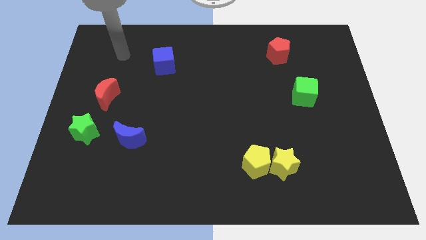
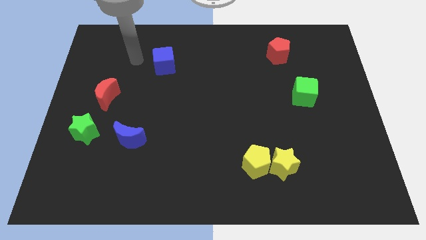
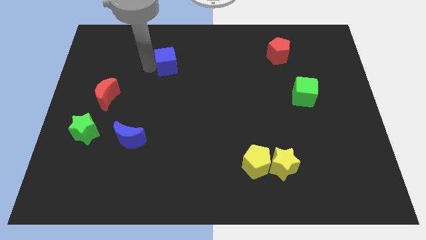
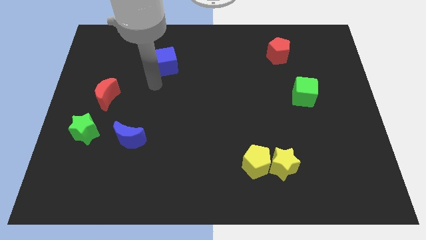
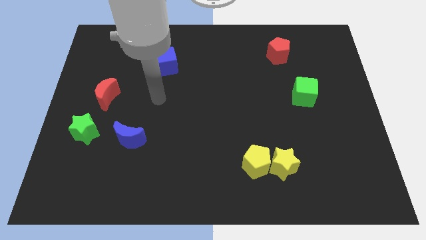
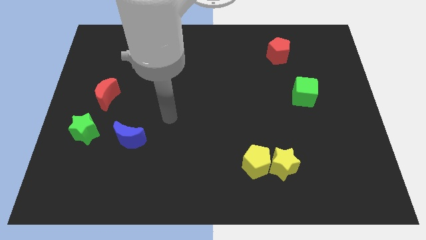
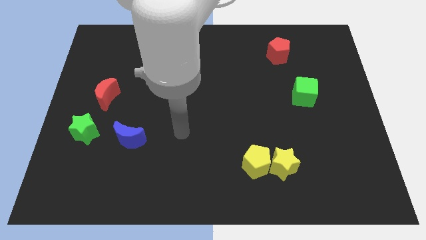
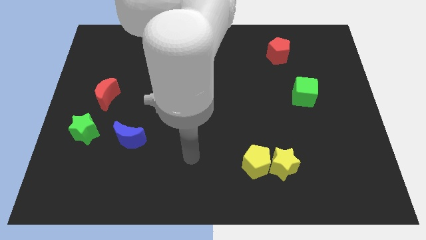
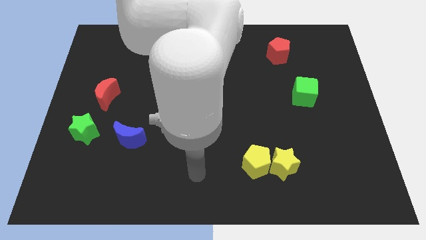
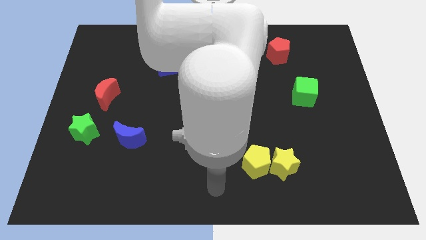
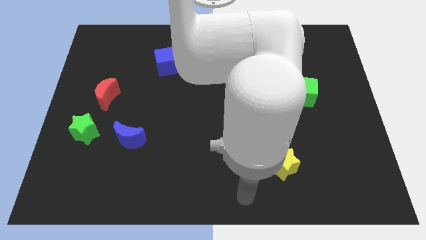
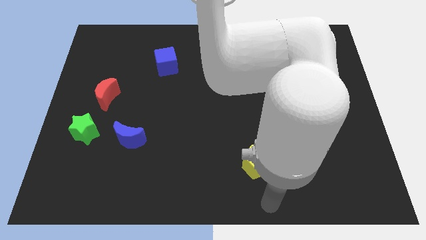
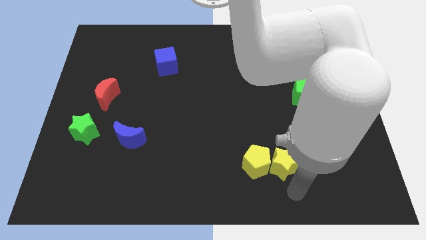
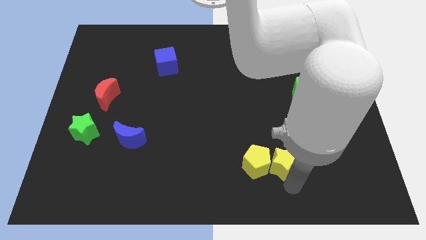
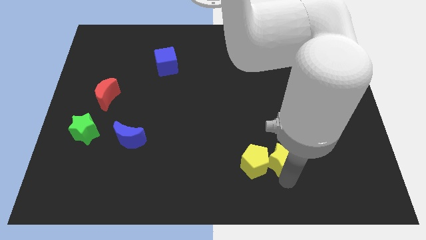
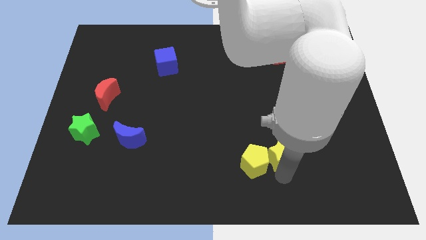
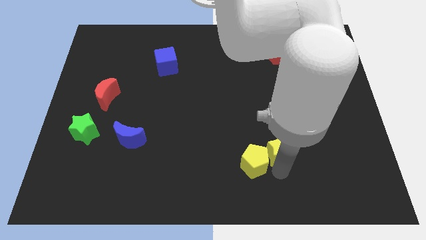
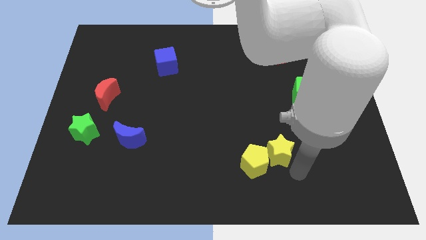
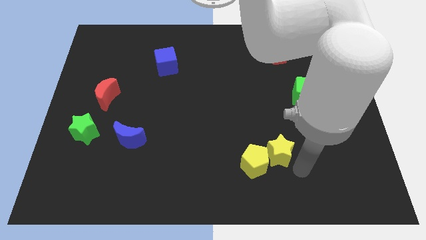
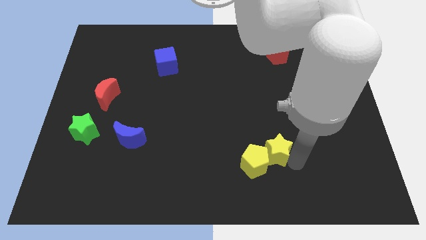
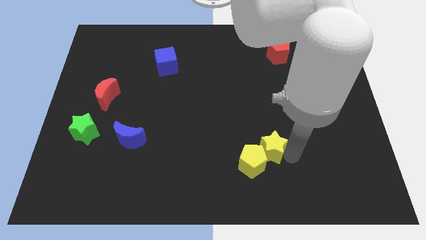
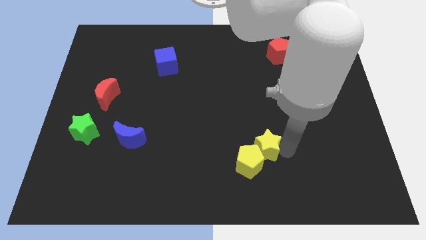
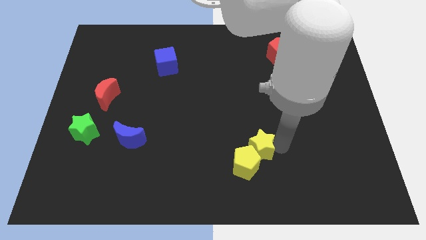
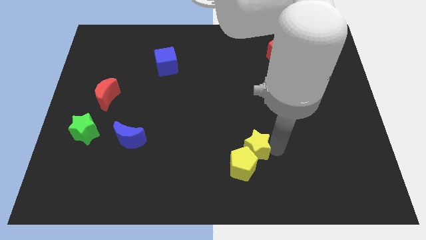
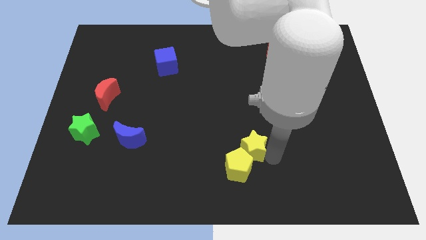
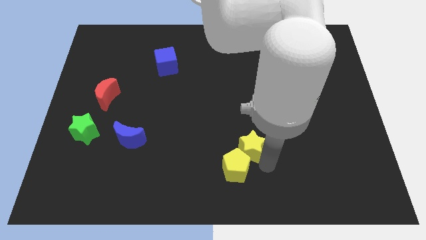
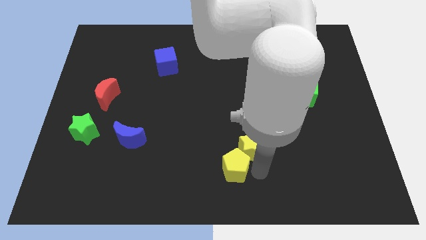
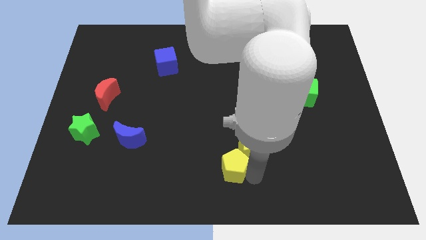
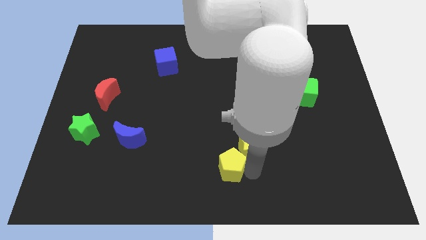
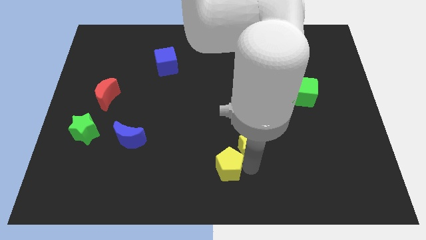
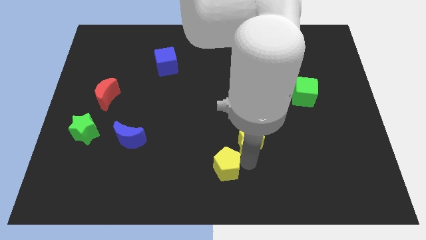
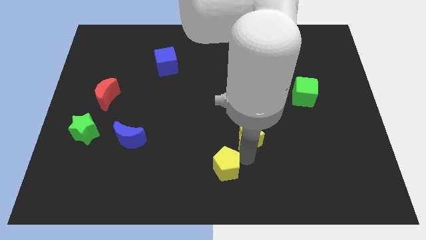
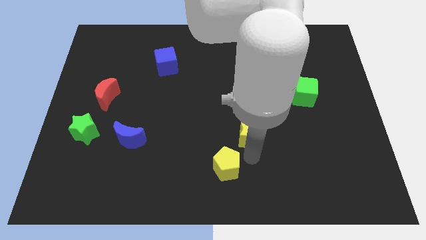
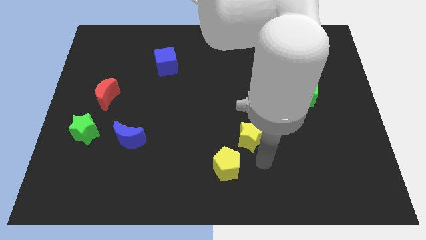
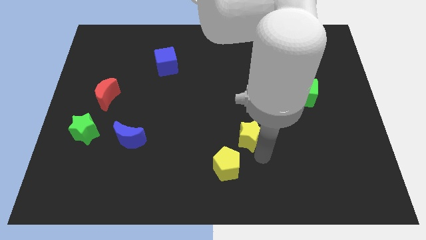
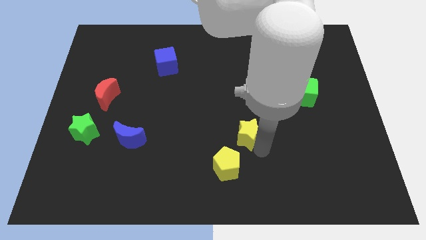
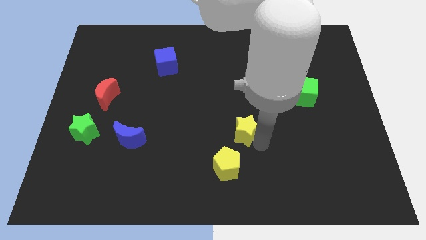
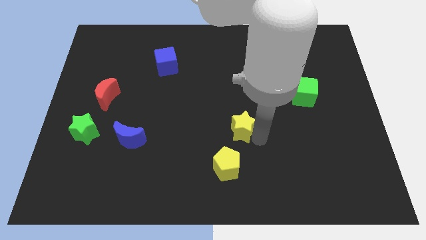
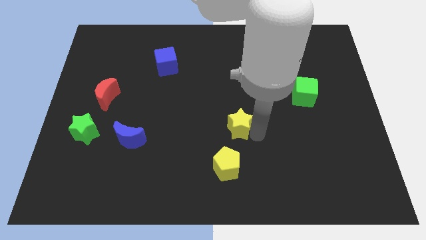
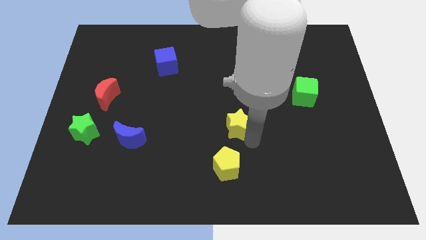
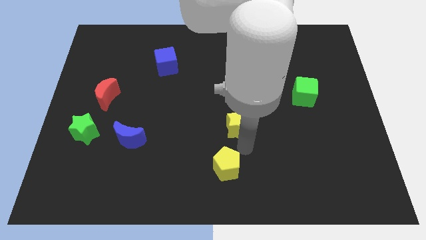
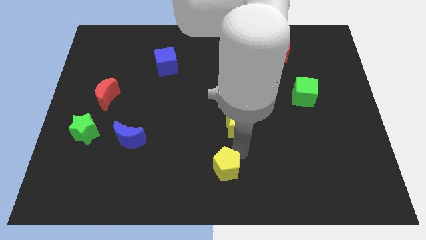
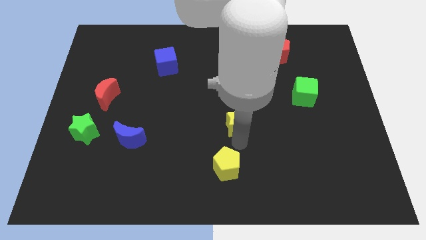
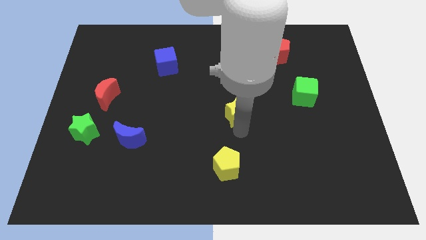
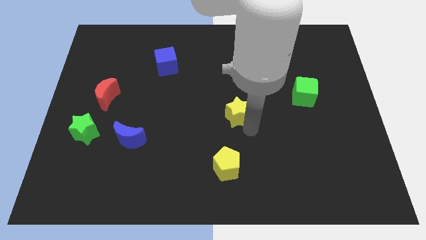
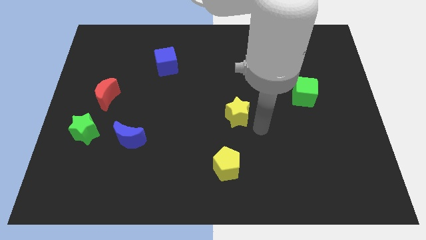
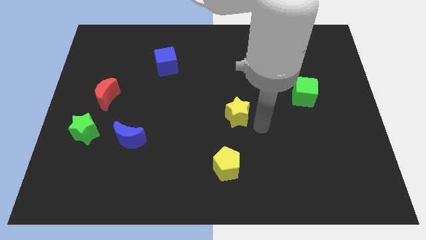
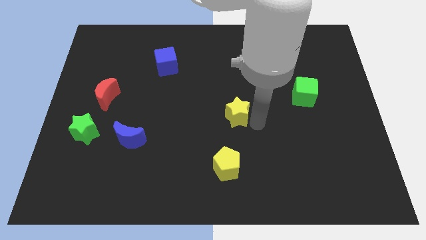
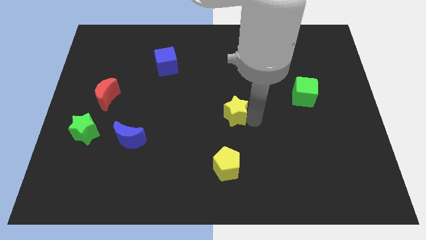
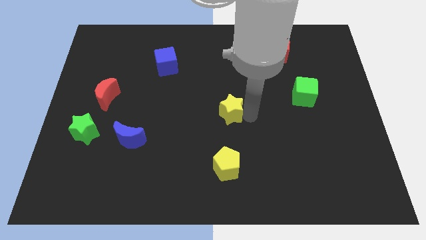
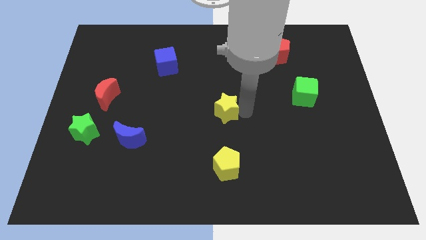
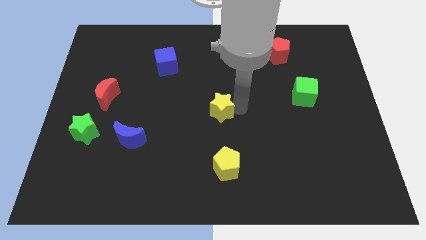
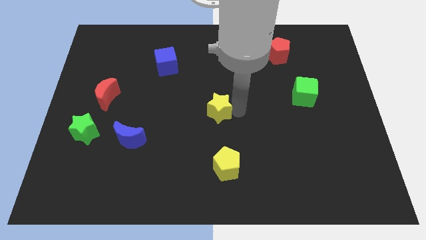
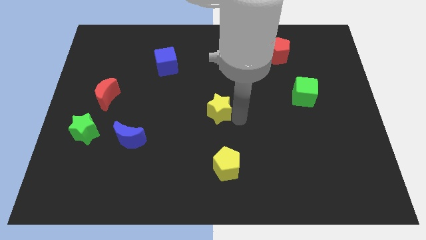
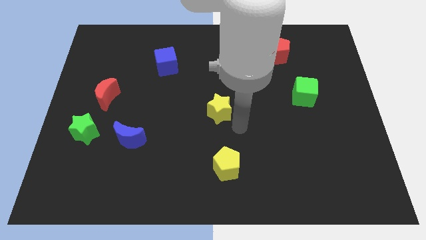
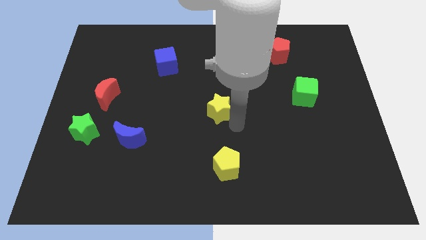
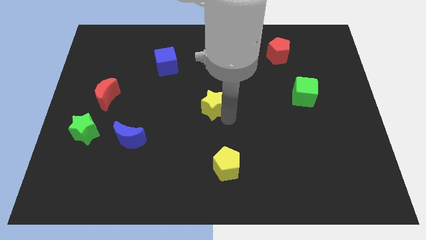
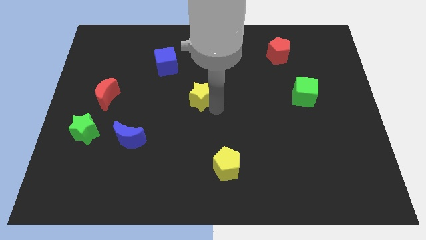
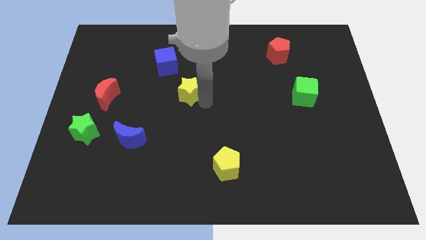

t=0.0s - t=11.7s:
move the yellow star diagonally down and to the right of the blue cube

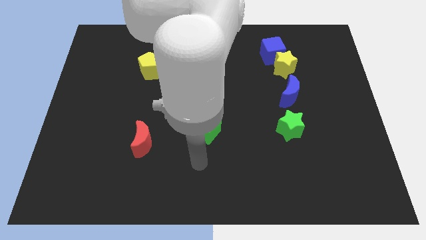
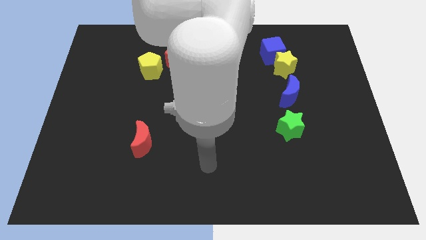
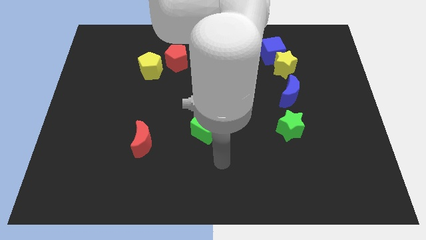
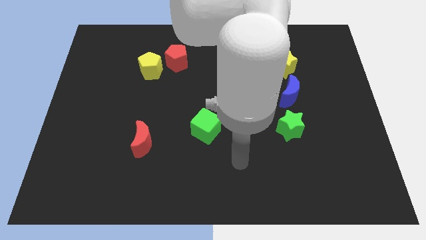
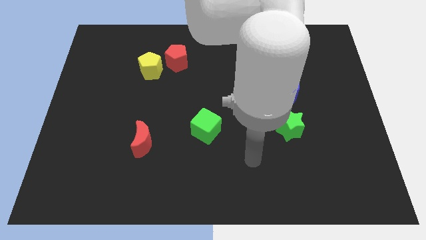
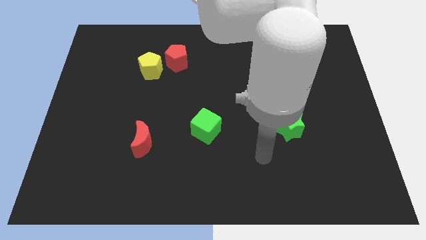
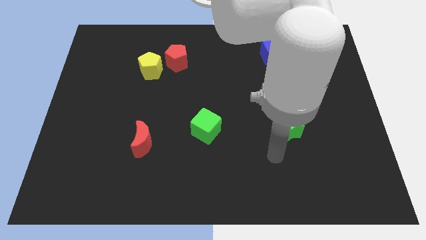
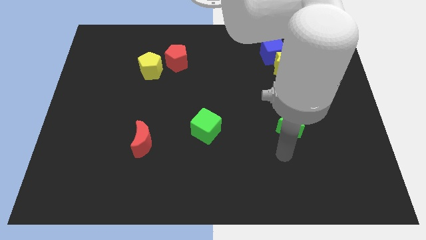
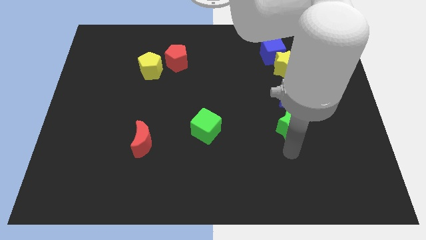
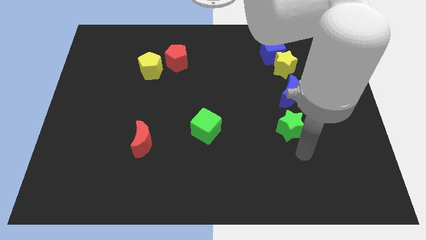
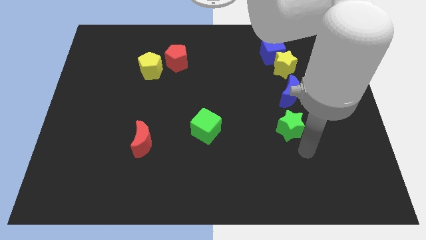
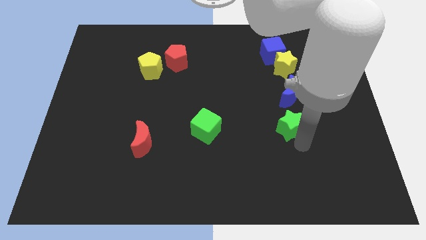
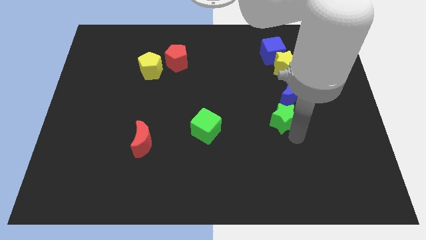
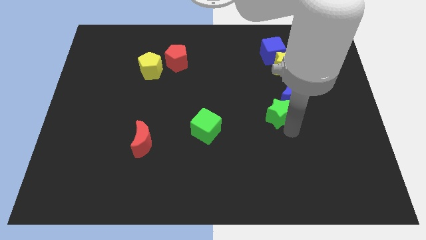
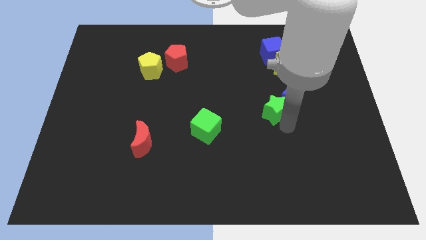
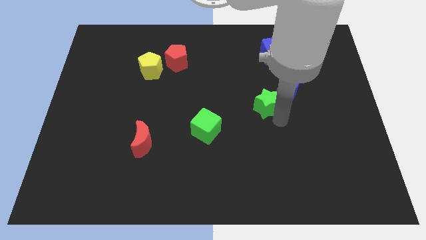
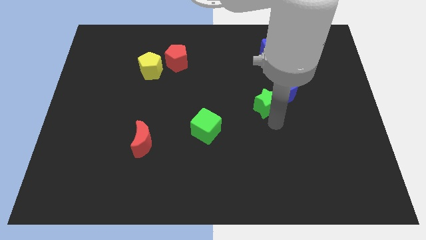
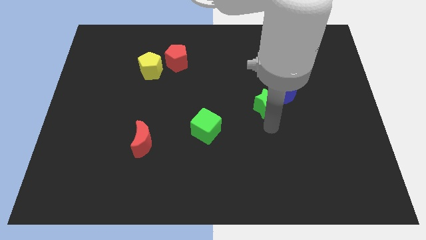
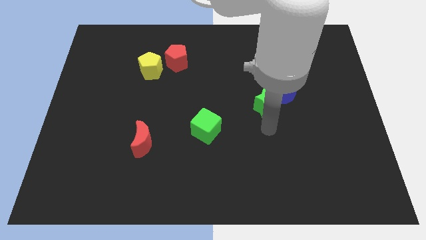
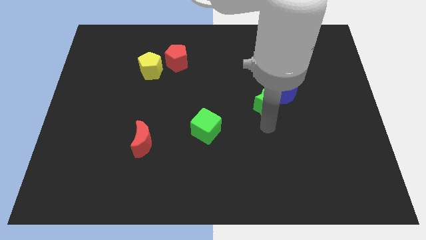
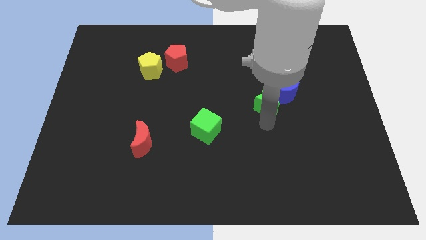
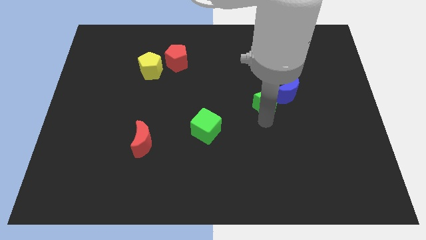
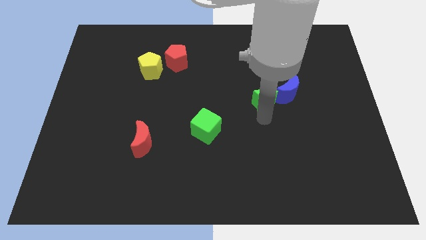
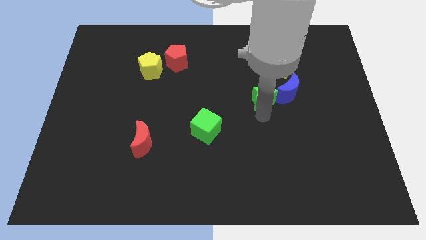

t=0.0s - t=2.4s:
put the green star to the bottom left side of the yellow star
